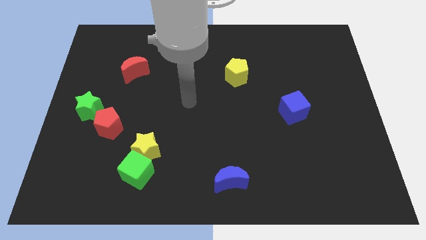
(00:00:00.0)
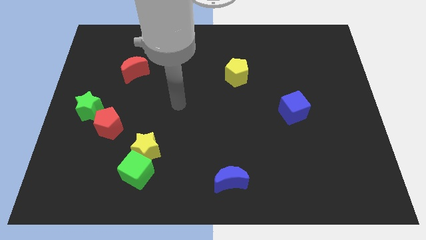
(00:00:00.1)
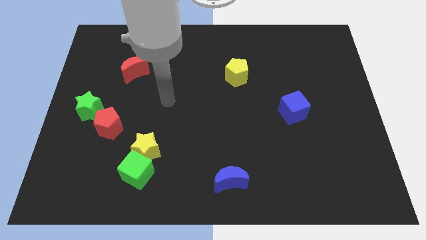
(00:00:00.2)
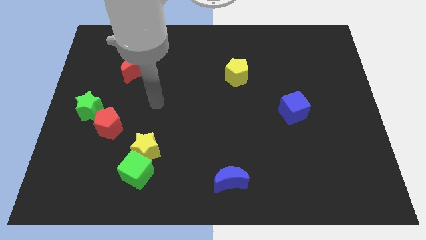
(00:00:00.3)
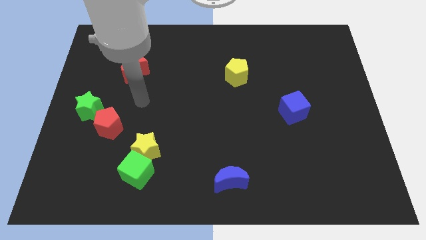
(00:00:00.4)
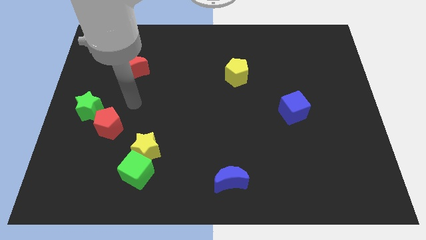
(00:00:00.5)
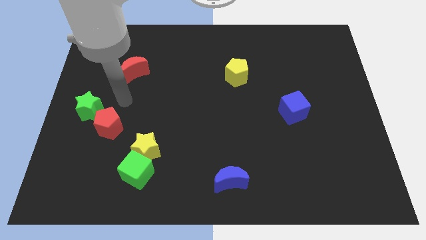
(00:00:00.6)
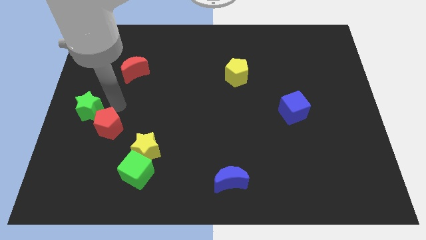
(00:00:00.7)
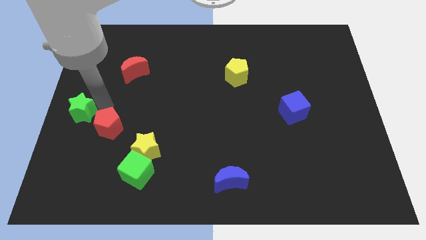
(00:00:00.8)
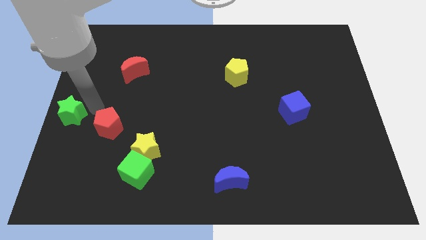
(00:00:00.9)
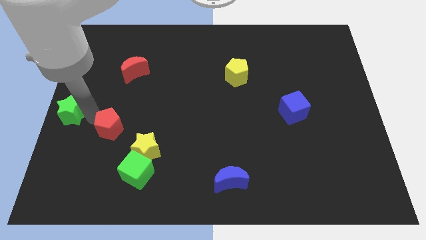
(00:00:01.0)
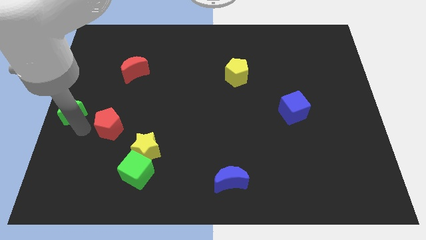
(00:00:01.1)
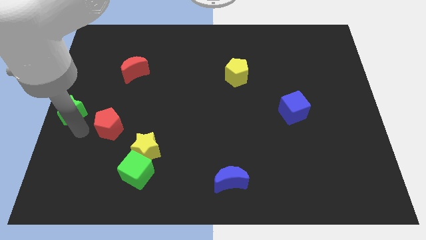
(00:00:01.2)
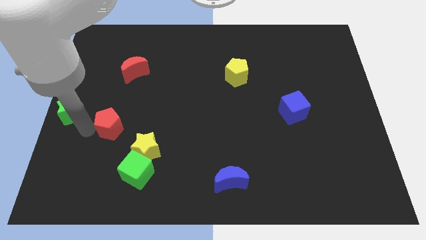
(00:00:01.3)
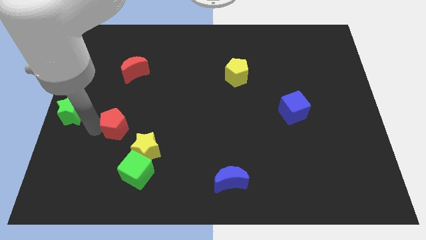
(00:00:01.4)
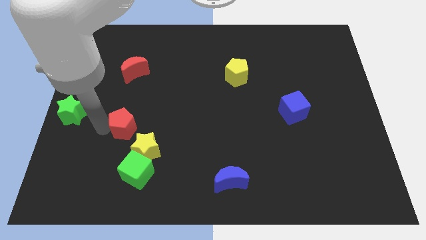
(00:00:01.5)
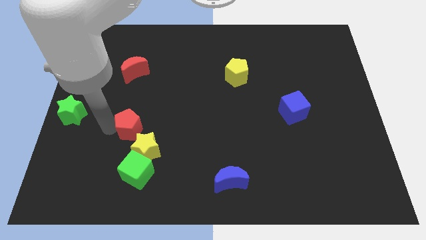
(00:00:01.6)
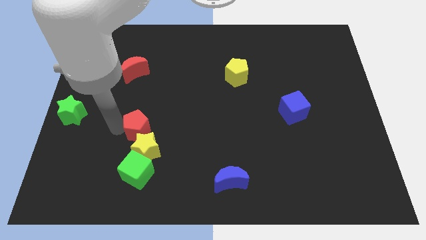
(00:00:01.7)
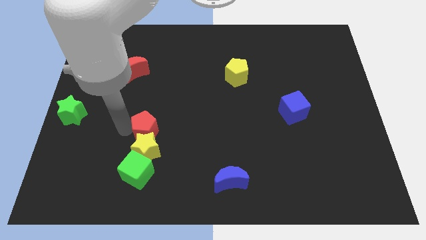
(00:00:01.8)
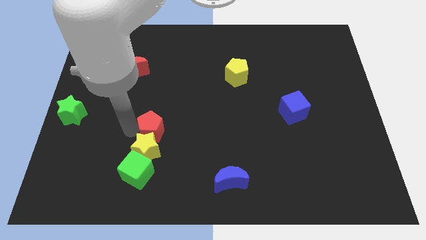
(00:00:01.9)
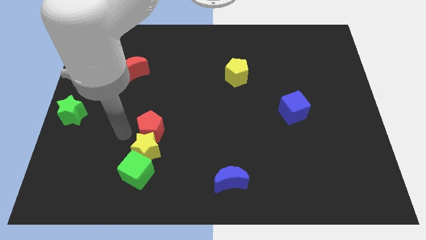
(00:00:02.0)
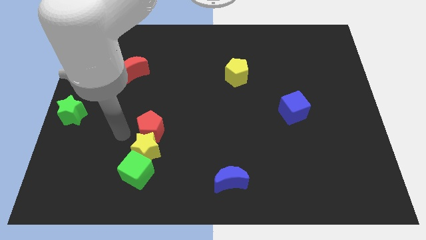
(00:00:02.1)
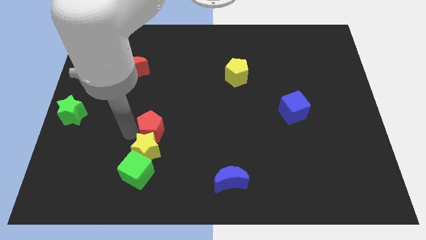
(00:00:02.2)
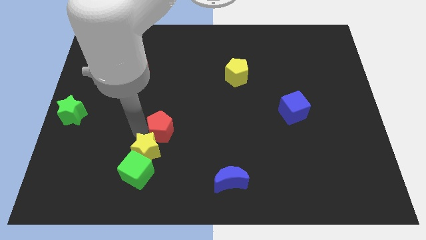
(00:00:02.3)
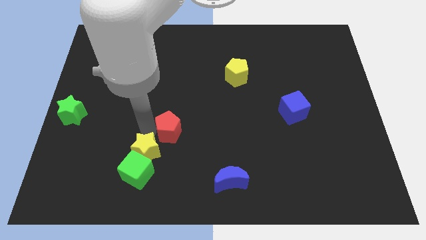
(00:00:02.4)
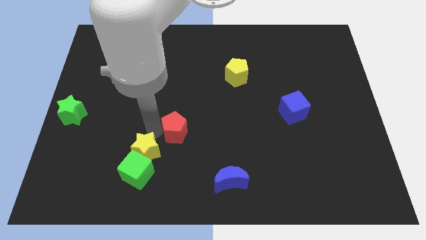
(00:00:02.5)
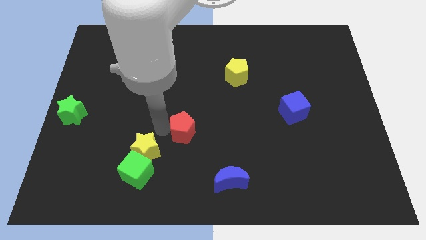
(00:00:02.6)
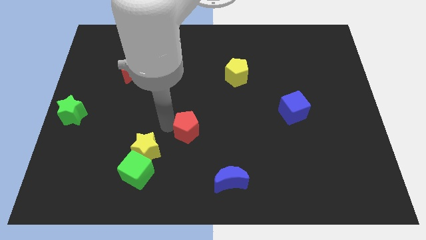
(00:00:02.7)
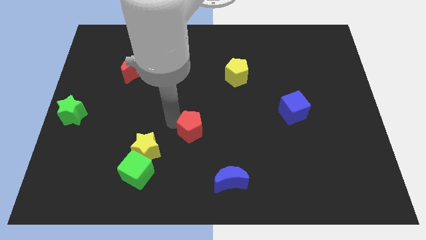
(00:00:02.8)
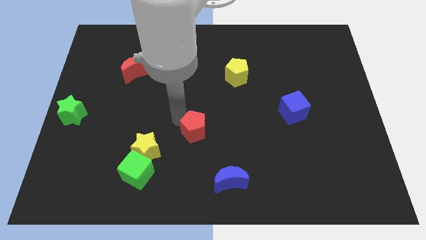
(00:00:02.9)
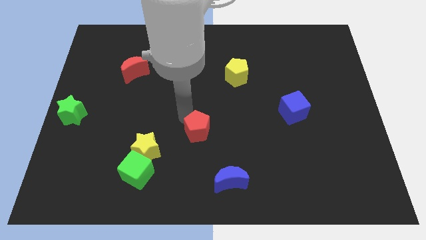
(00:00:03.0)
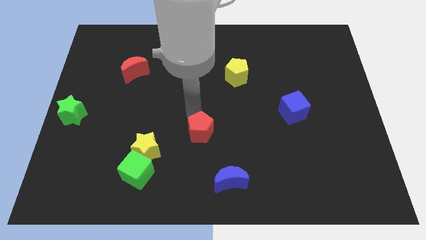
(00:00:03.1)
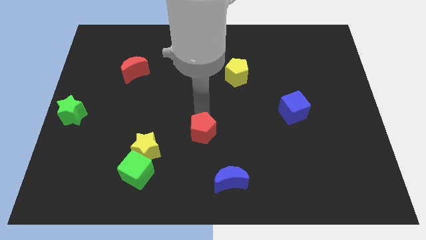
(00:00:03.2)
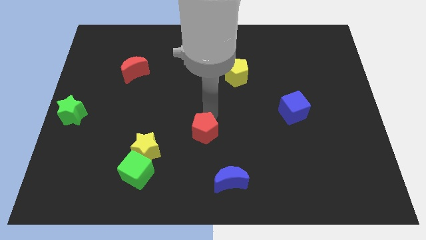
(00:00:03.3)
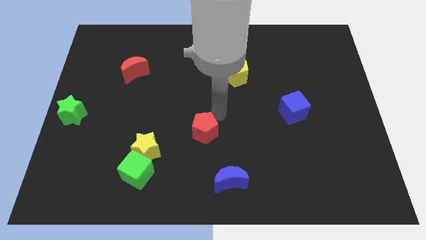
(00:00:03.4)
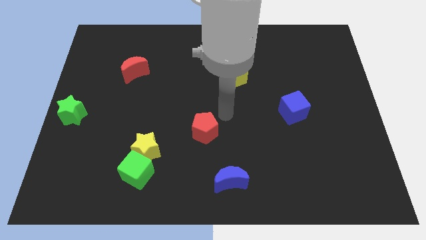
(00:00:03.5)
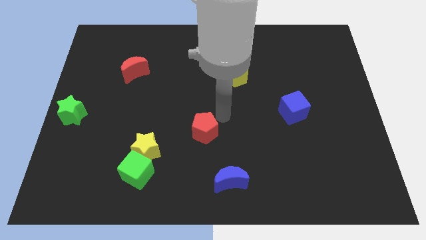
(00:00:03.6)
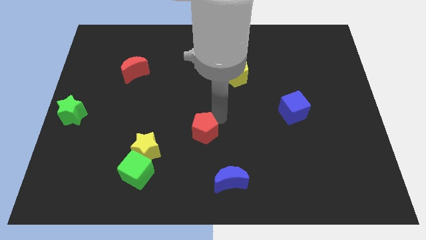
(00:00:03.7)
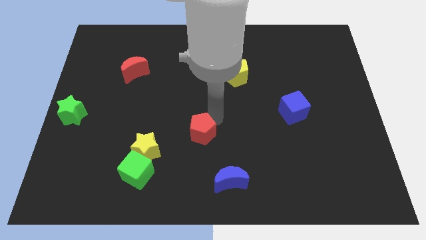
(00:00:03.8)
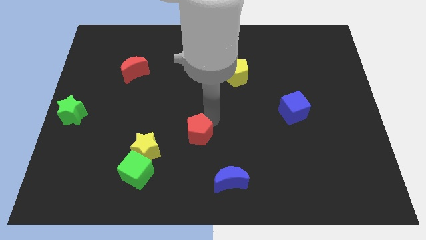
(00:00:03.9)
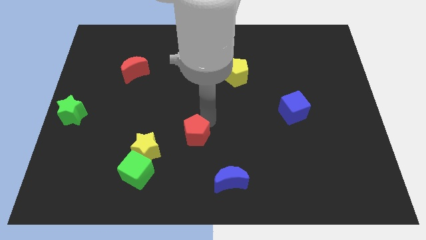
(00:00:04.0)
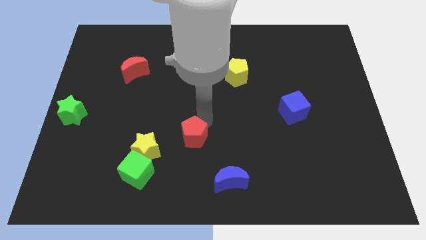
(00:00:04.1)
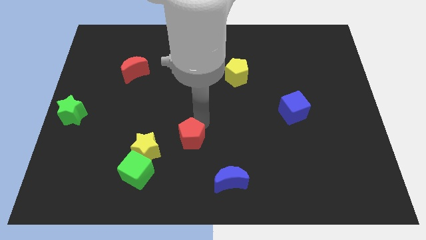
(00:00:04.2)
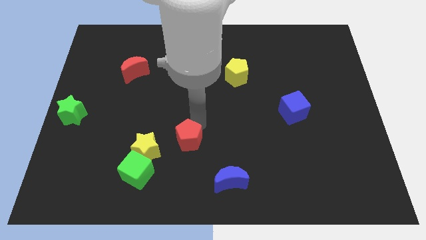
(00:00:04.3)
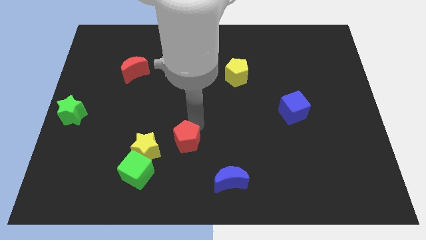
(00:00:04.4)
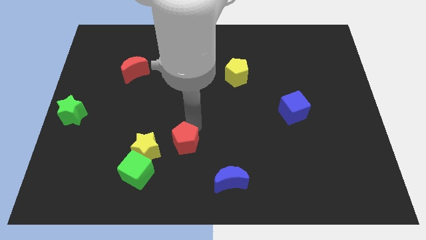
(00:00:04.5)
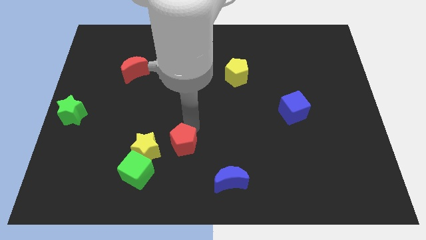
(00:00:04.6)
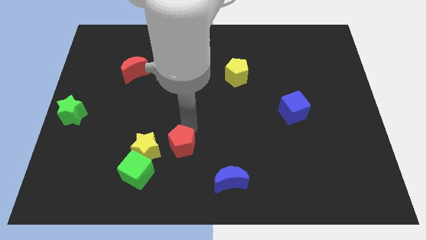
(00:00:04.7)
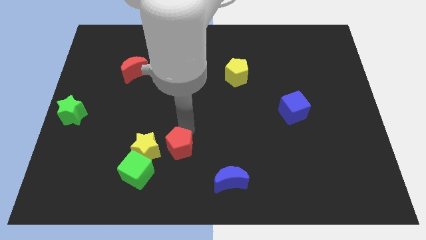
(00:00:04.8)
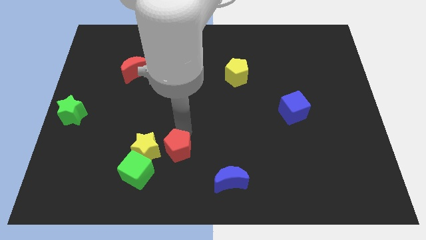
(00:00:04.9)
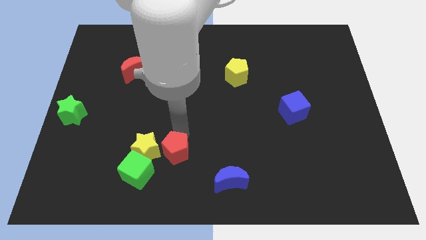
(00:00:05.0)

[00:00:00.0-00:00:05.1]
move the red pentagon to the bottom right side of the yellow star

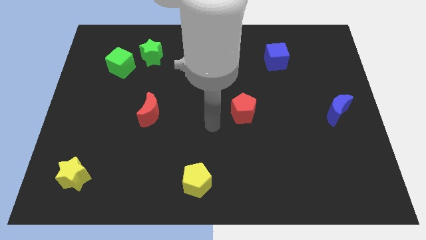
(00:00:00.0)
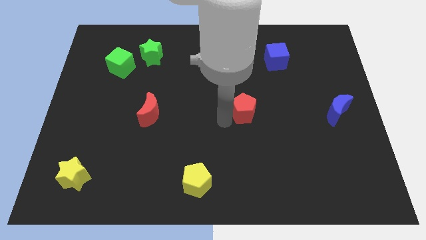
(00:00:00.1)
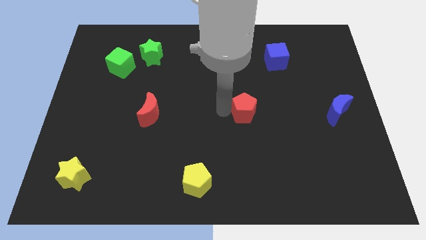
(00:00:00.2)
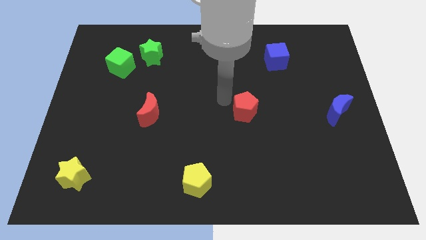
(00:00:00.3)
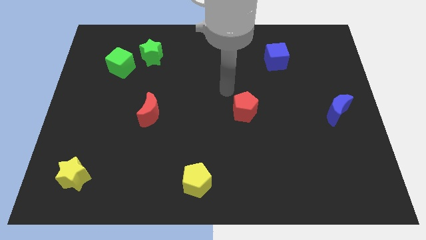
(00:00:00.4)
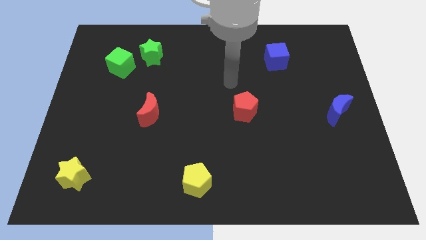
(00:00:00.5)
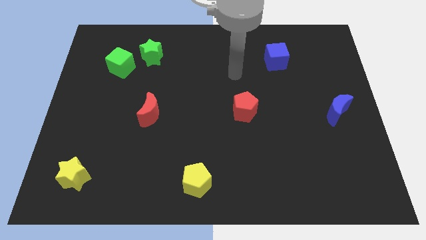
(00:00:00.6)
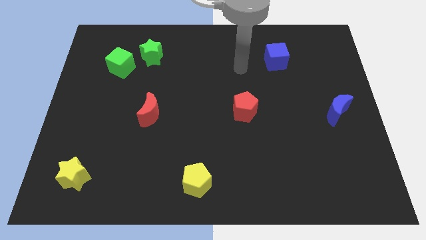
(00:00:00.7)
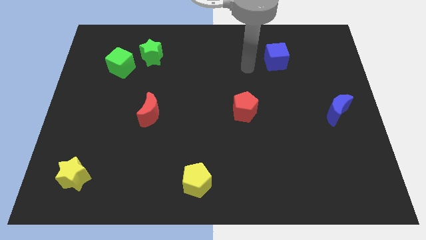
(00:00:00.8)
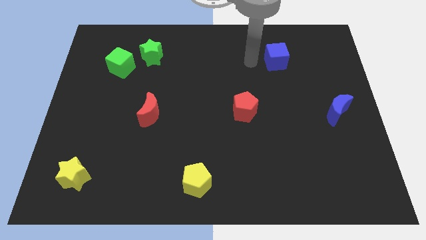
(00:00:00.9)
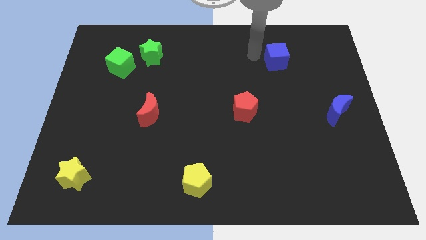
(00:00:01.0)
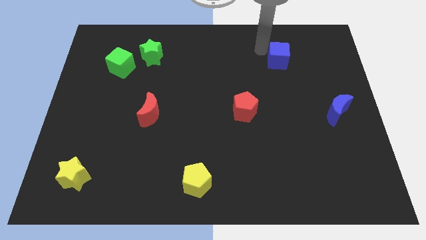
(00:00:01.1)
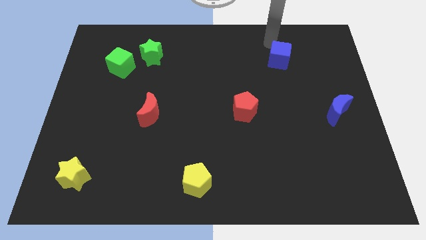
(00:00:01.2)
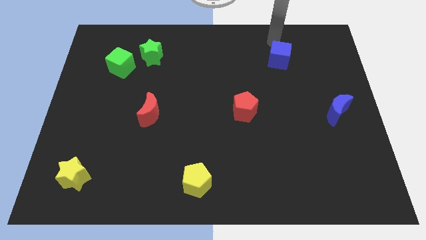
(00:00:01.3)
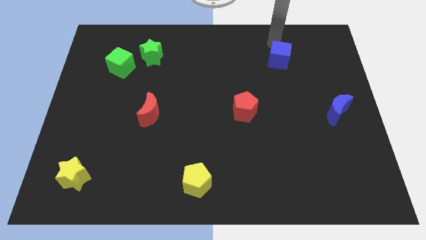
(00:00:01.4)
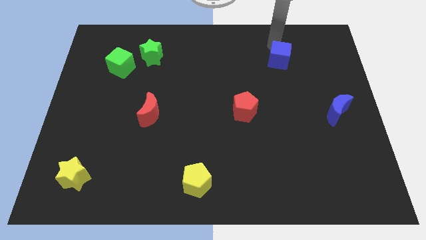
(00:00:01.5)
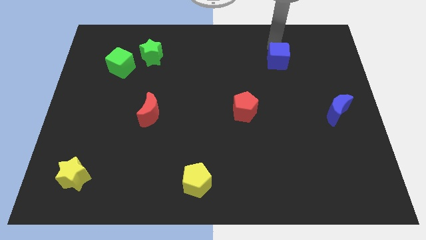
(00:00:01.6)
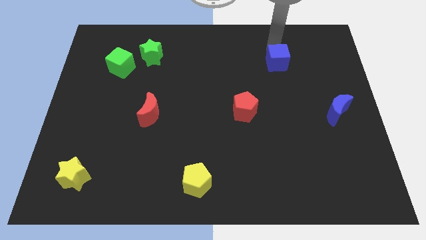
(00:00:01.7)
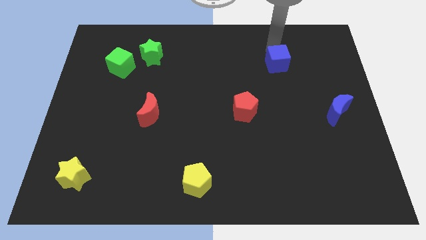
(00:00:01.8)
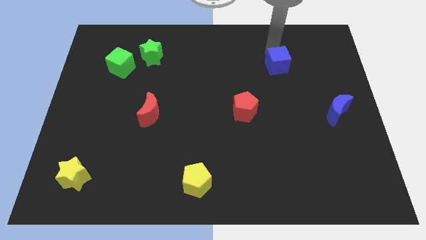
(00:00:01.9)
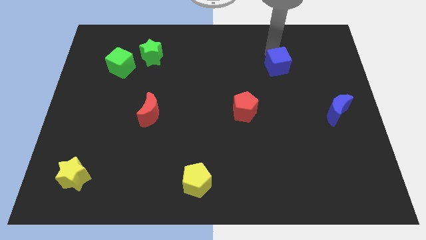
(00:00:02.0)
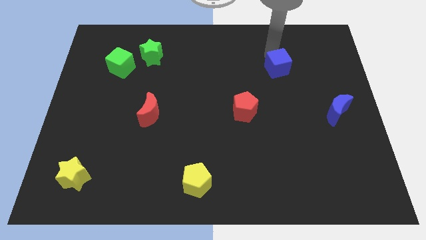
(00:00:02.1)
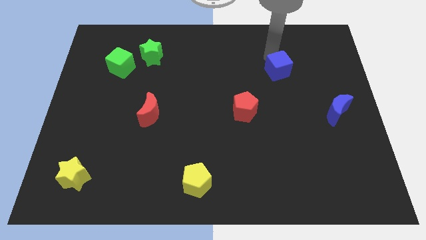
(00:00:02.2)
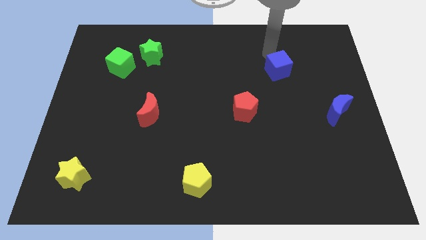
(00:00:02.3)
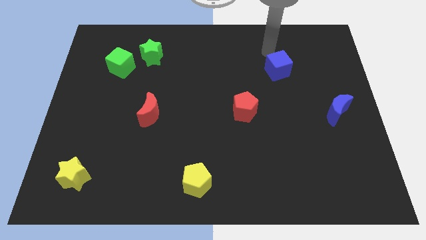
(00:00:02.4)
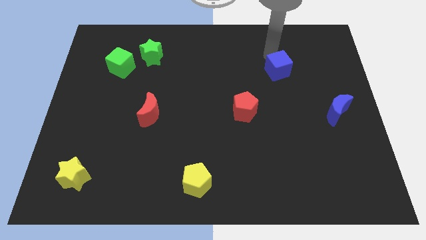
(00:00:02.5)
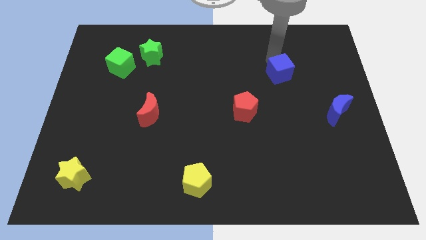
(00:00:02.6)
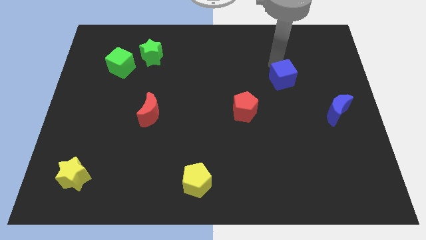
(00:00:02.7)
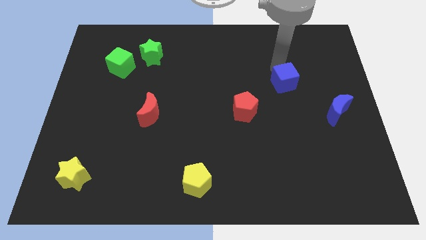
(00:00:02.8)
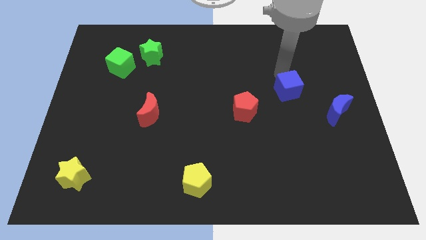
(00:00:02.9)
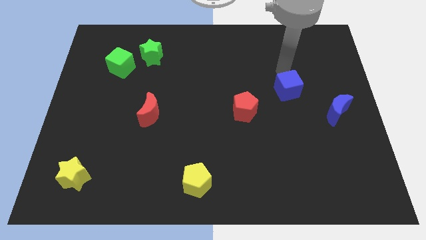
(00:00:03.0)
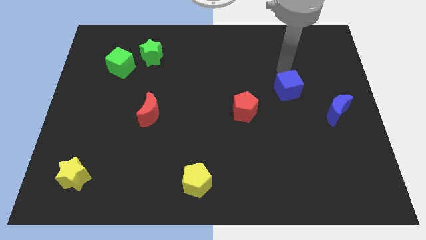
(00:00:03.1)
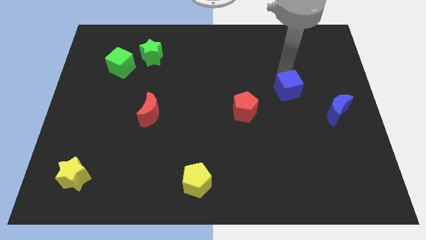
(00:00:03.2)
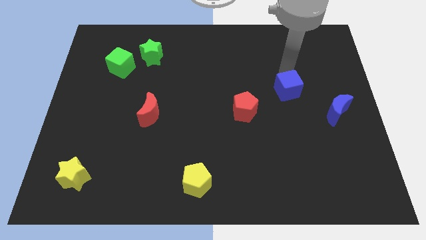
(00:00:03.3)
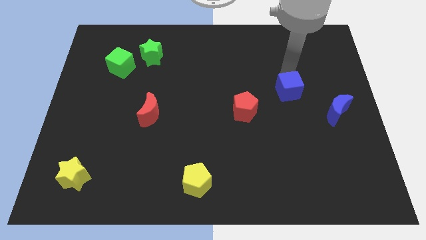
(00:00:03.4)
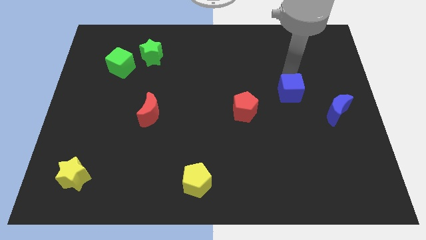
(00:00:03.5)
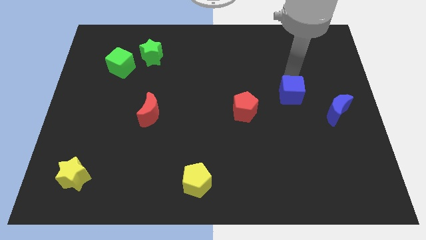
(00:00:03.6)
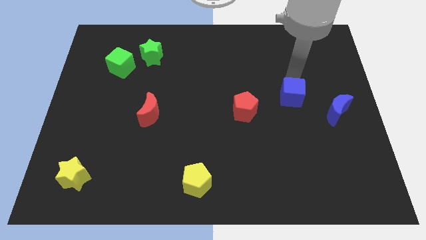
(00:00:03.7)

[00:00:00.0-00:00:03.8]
slide the blue cube just left of the blue moon
